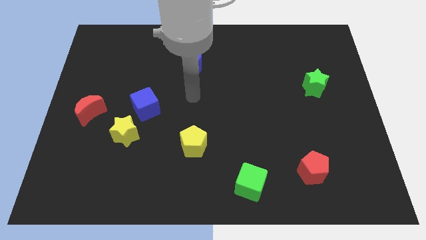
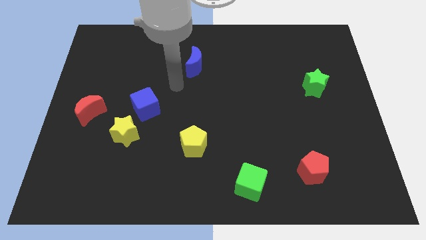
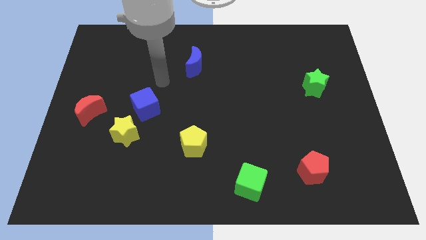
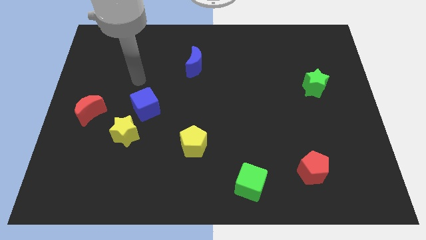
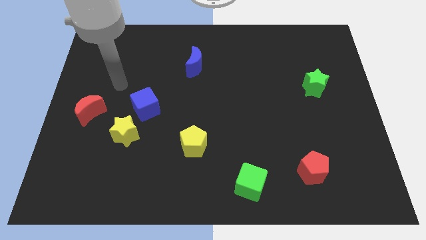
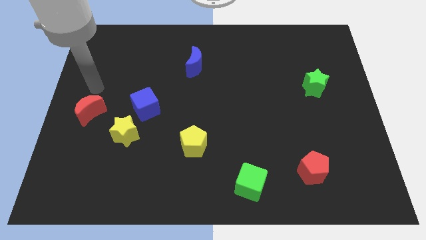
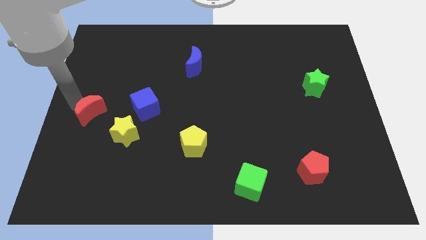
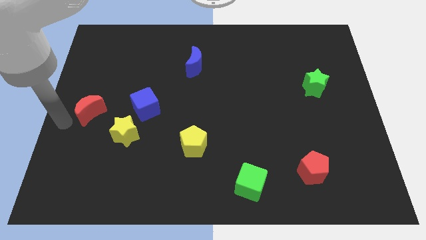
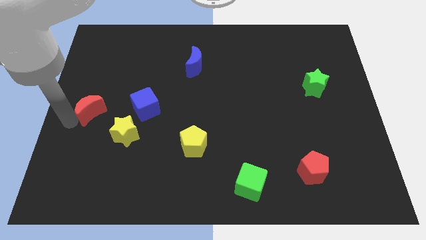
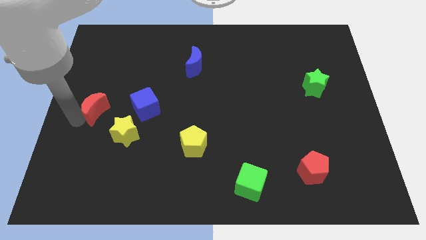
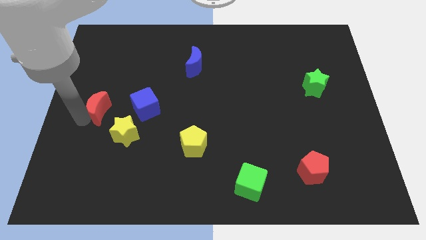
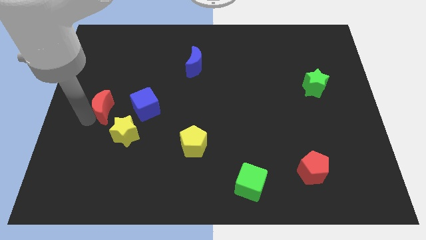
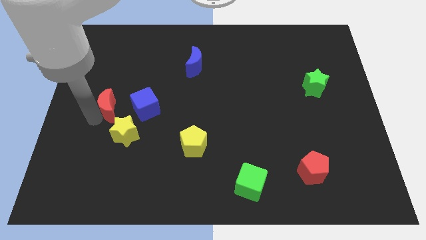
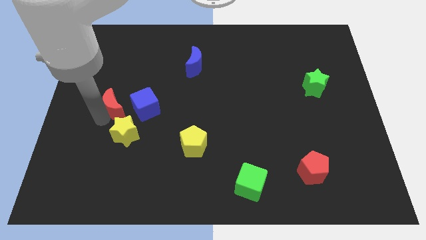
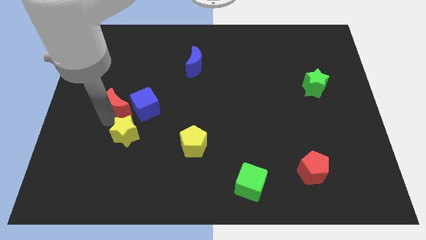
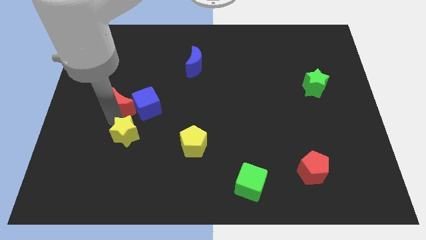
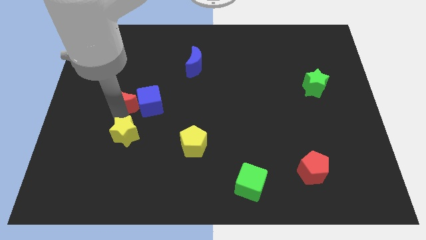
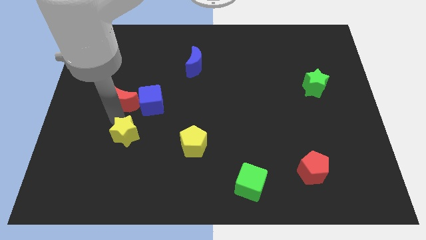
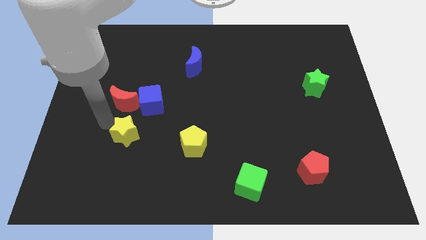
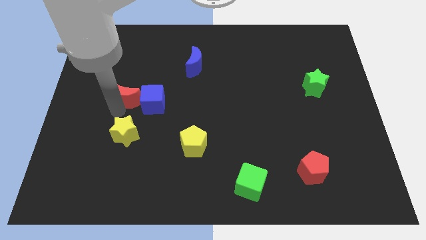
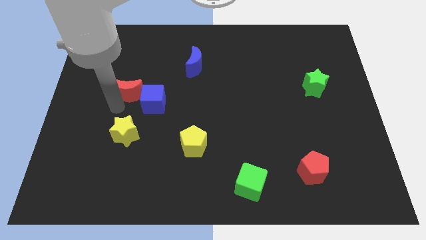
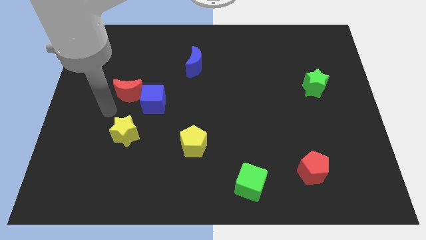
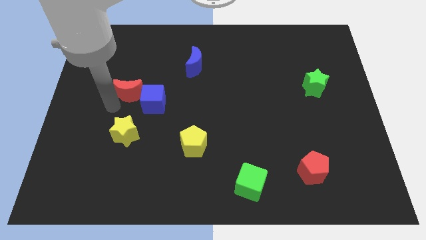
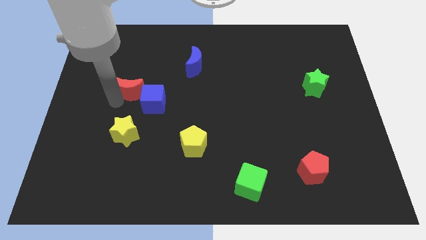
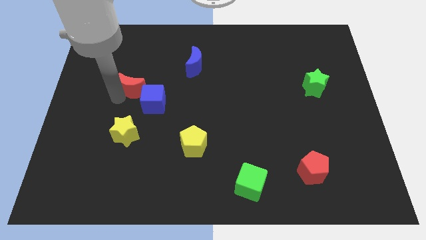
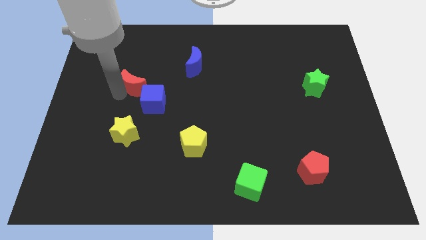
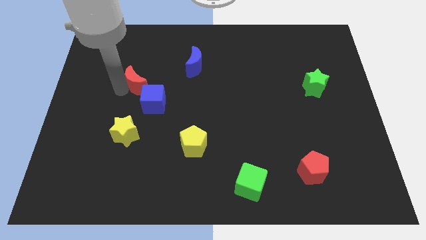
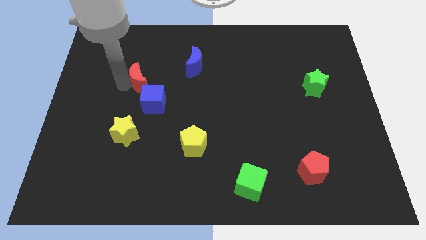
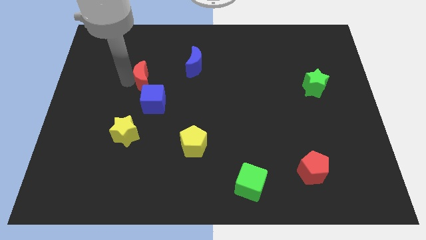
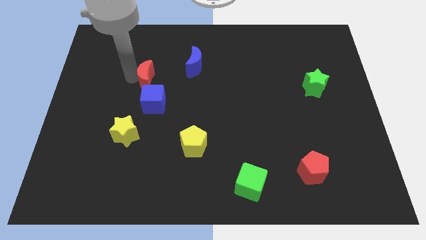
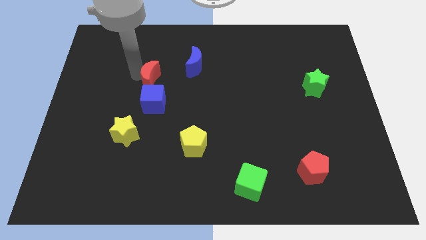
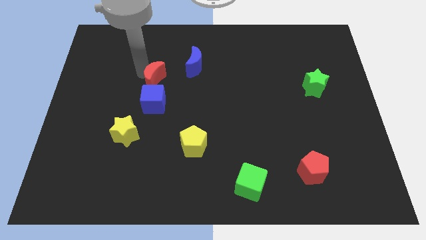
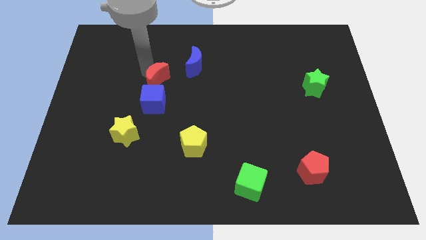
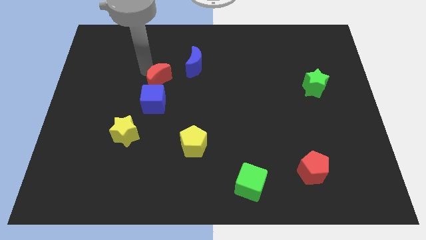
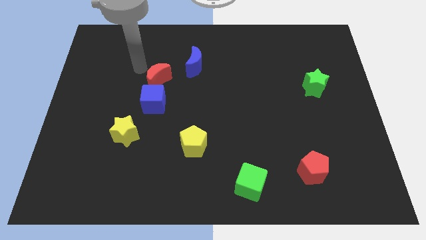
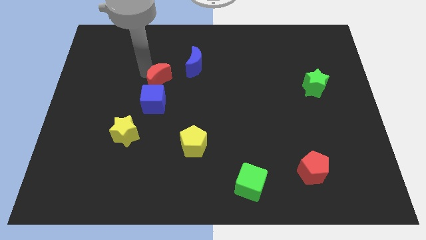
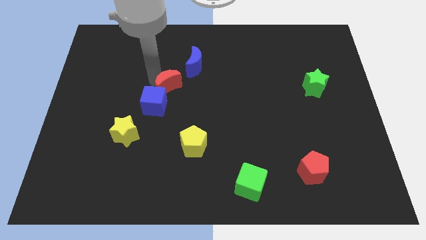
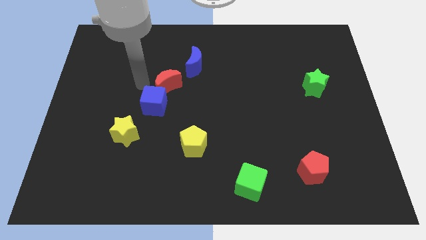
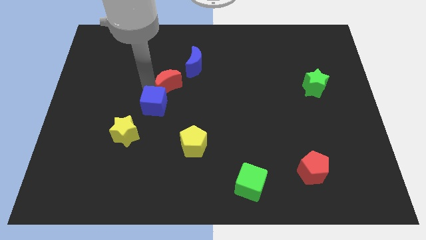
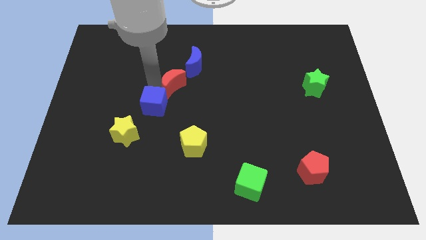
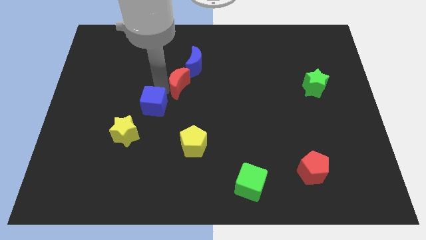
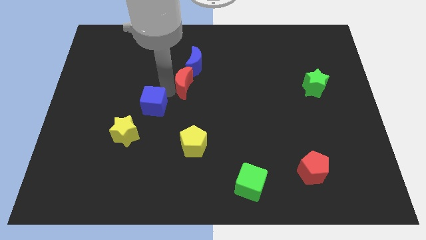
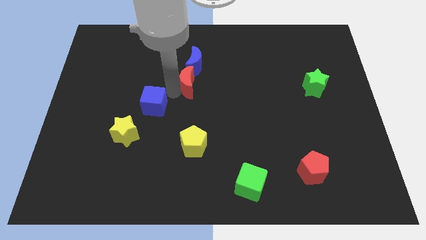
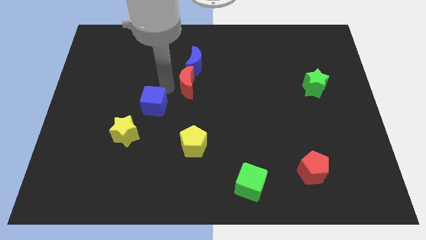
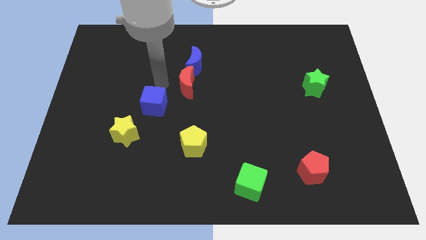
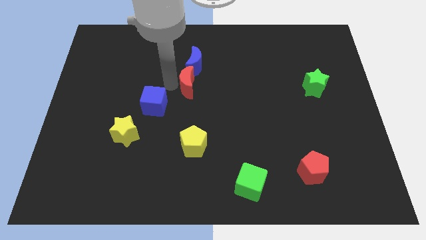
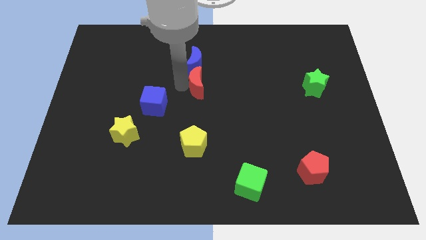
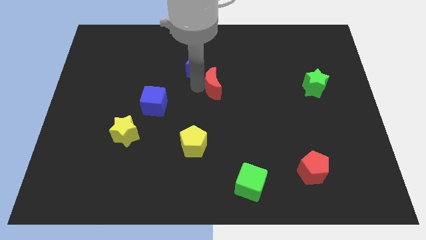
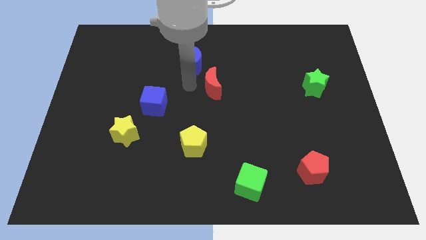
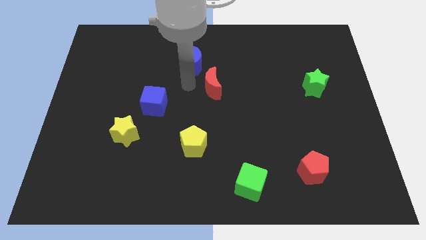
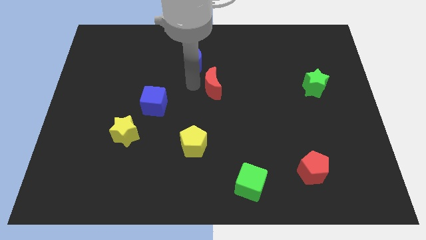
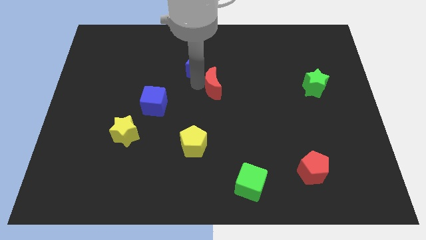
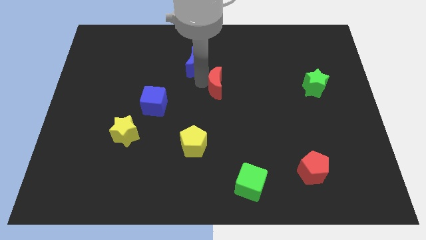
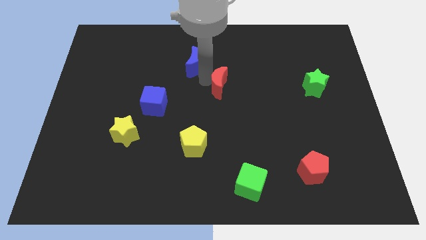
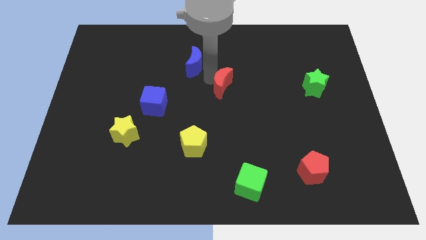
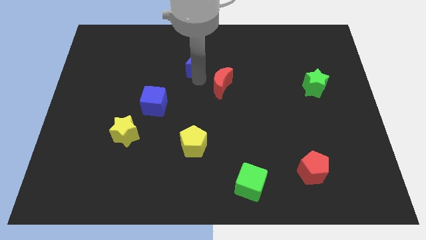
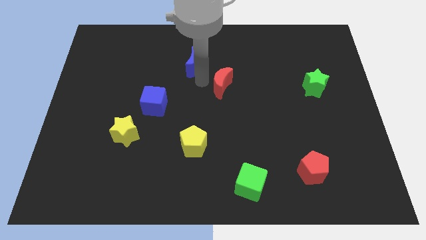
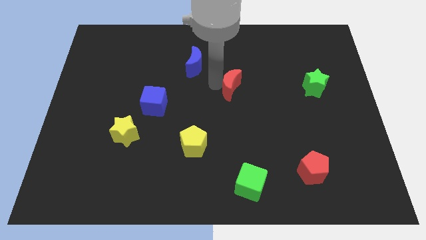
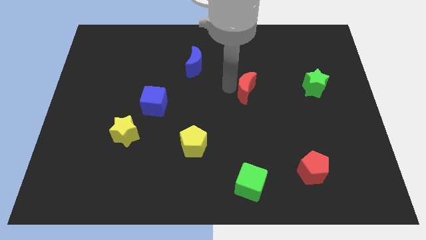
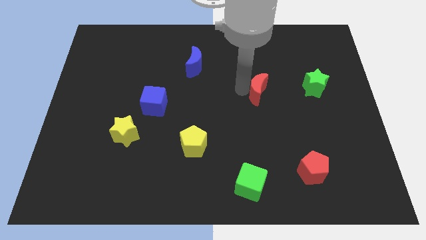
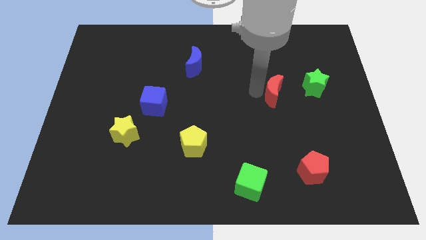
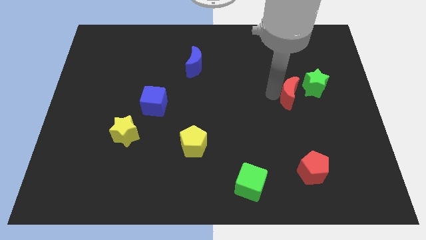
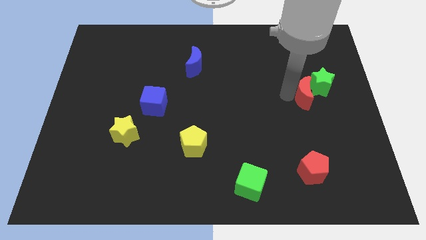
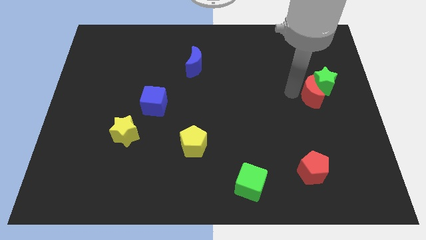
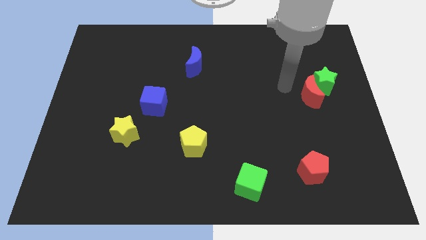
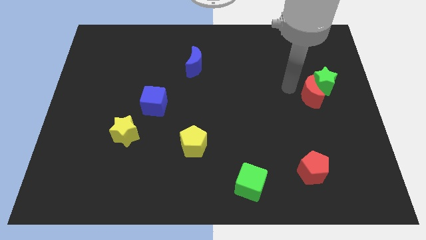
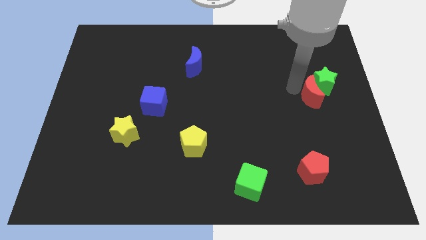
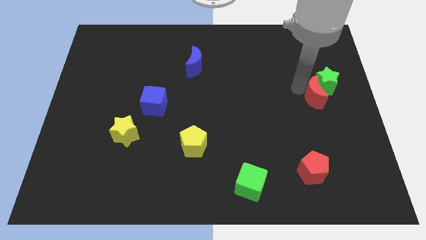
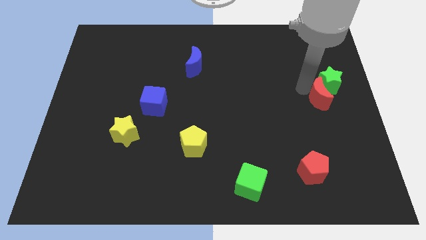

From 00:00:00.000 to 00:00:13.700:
slide the red moon to the center right
